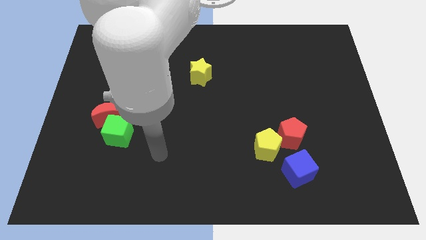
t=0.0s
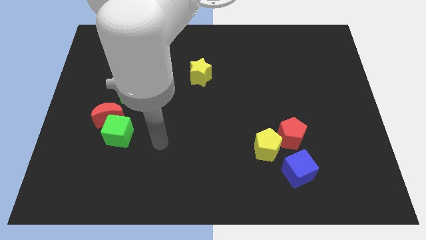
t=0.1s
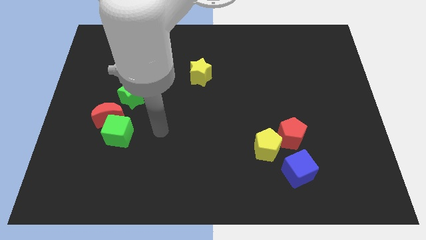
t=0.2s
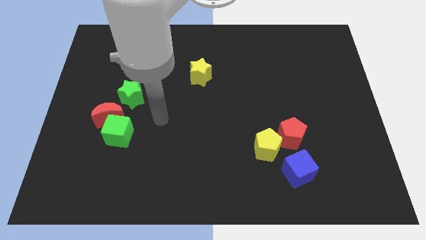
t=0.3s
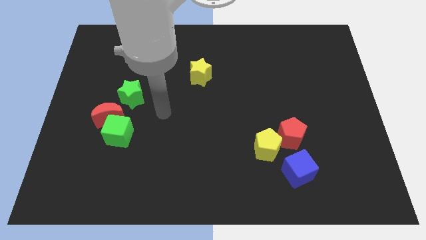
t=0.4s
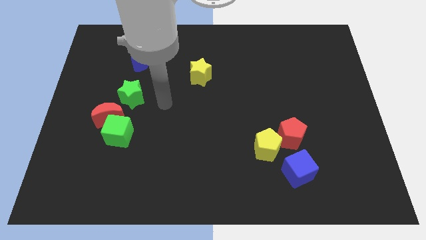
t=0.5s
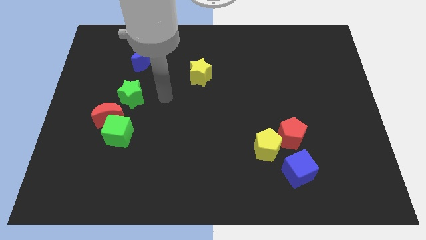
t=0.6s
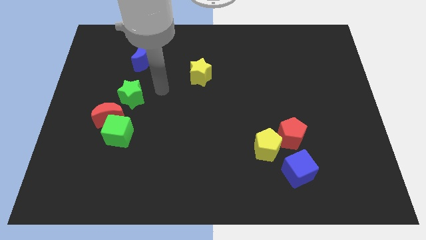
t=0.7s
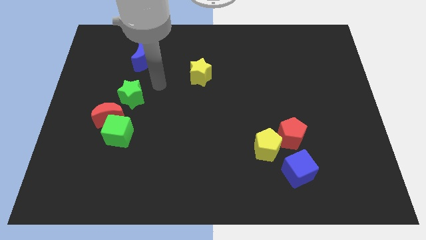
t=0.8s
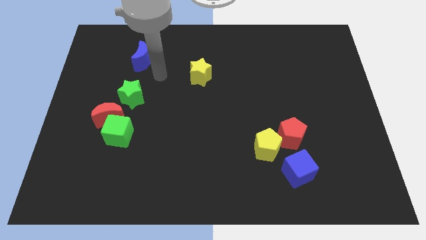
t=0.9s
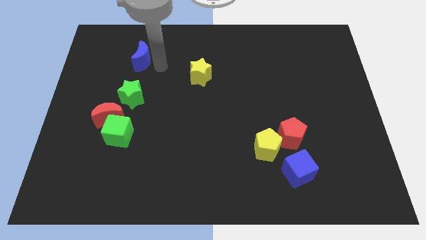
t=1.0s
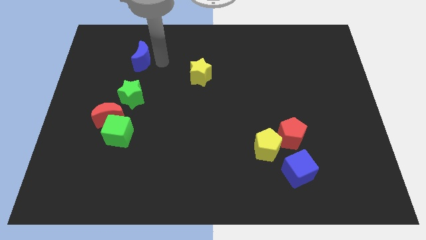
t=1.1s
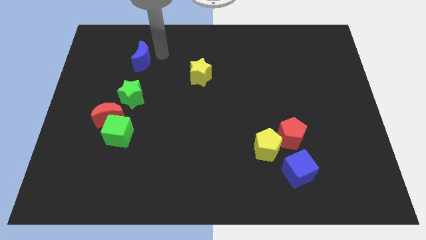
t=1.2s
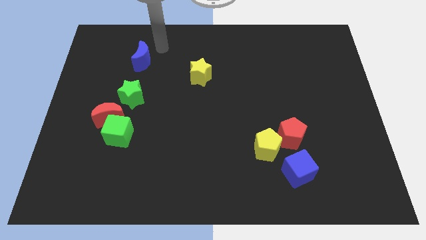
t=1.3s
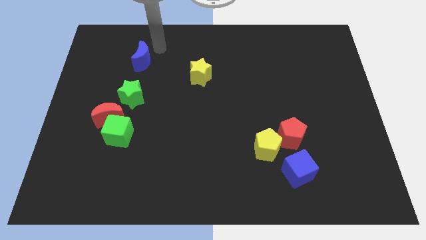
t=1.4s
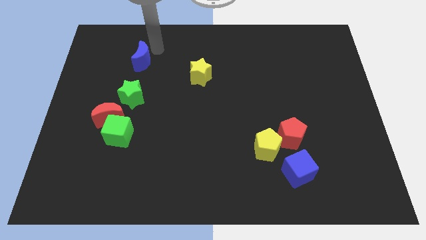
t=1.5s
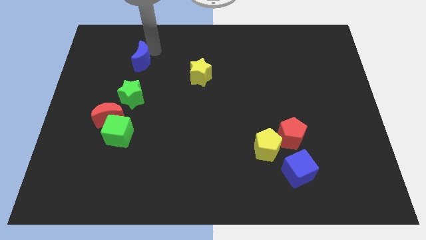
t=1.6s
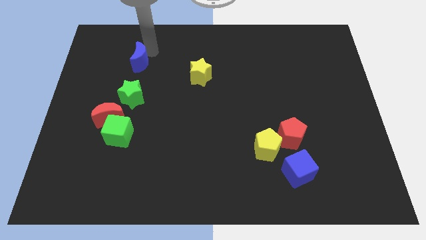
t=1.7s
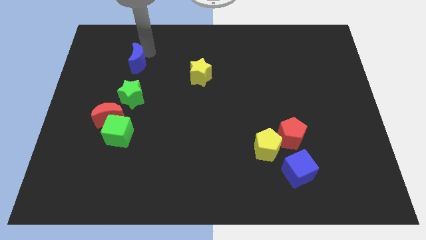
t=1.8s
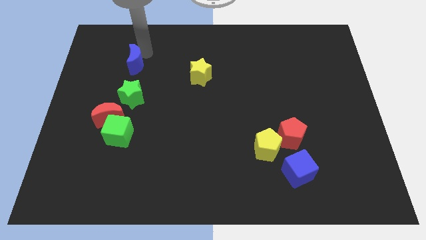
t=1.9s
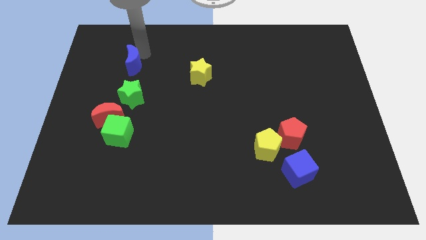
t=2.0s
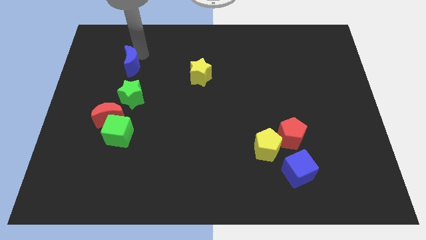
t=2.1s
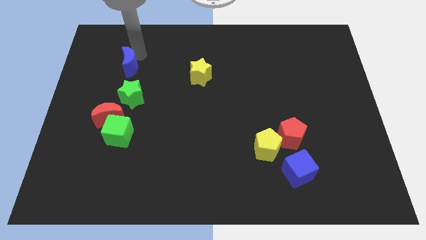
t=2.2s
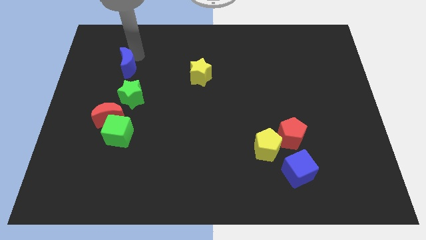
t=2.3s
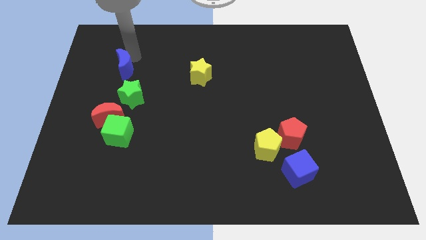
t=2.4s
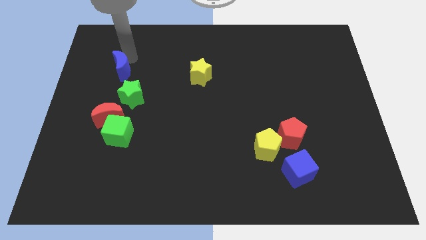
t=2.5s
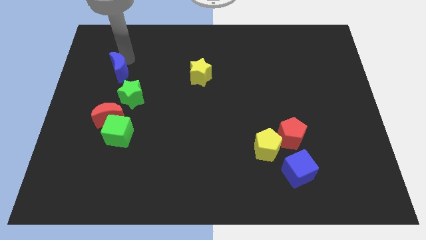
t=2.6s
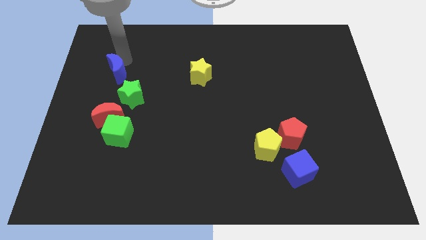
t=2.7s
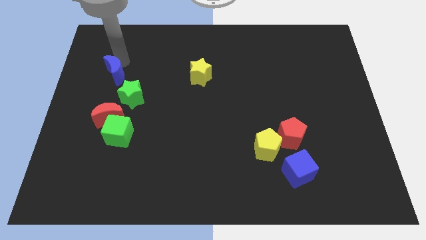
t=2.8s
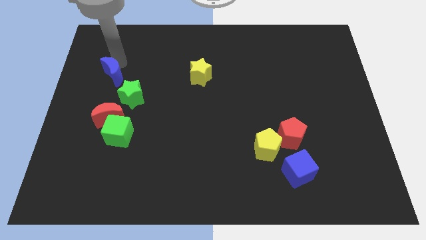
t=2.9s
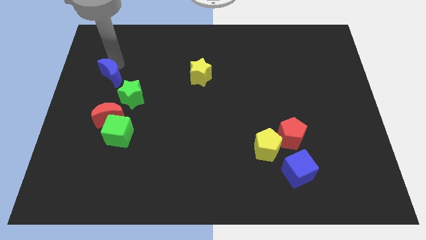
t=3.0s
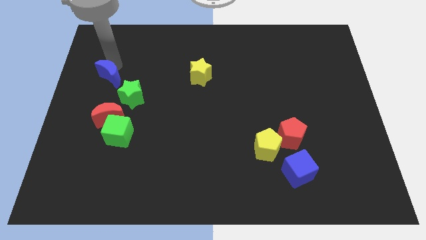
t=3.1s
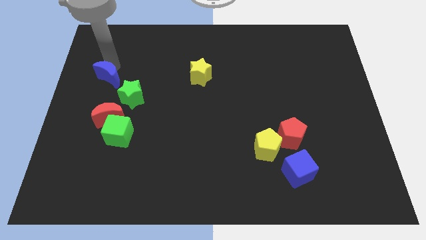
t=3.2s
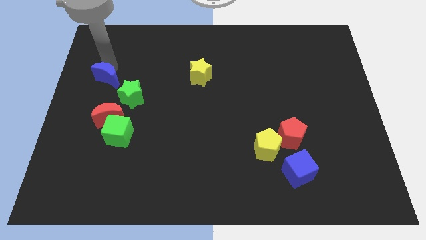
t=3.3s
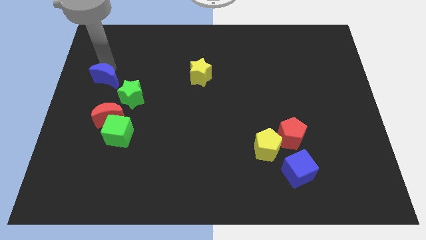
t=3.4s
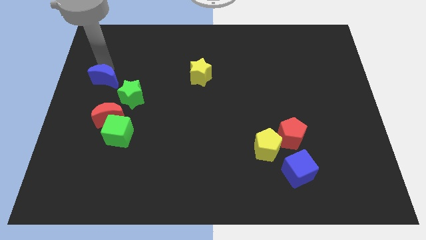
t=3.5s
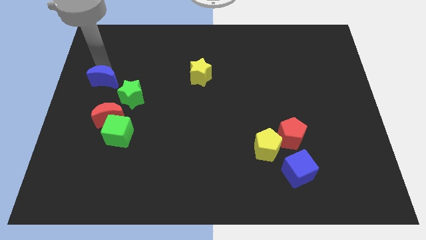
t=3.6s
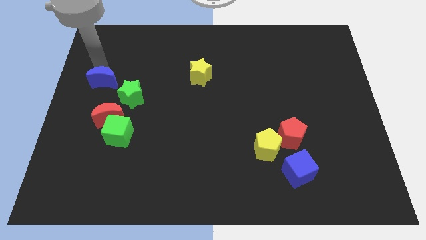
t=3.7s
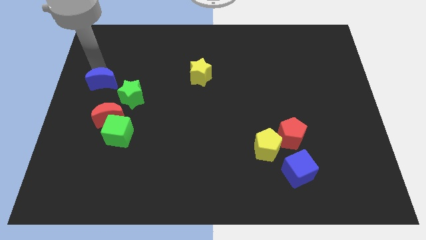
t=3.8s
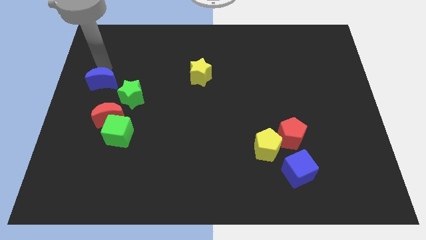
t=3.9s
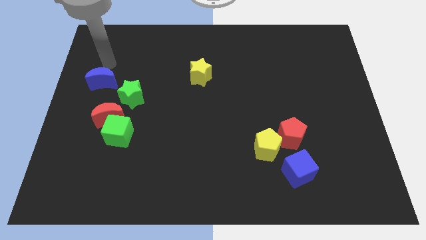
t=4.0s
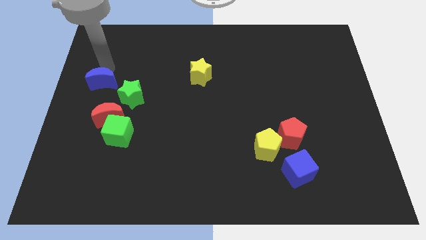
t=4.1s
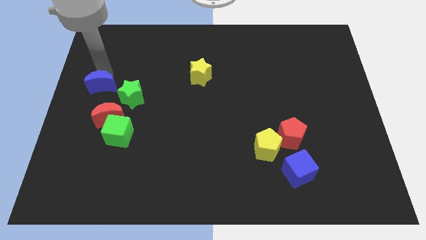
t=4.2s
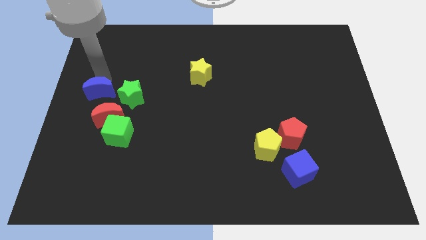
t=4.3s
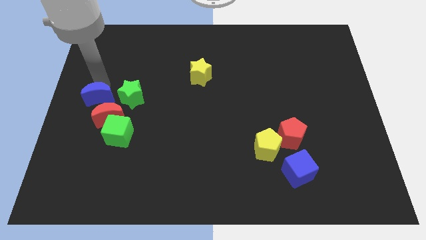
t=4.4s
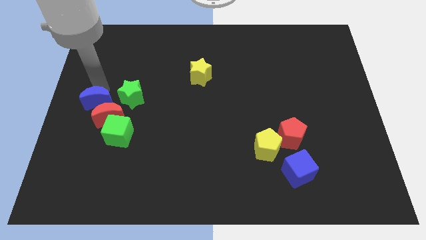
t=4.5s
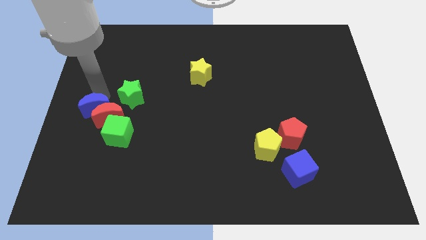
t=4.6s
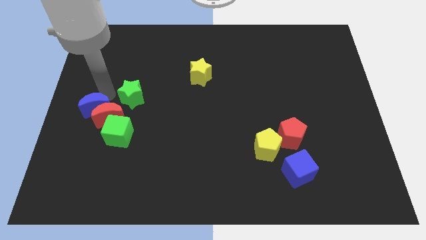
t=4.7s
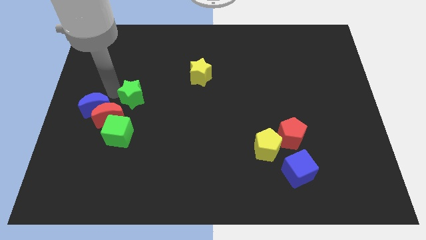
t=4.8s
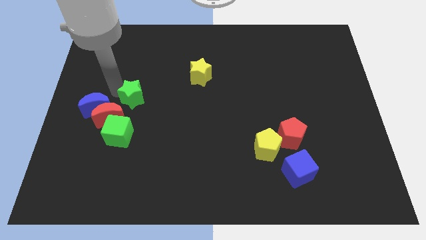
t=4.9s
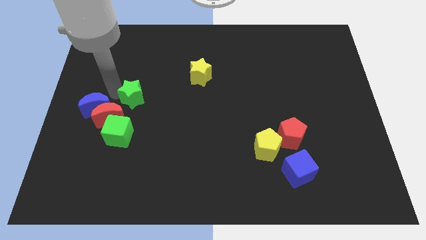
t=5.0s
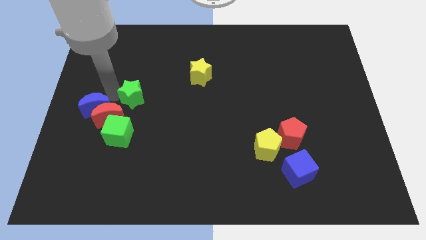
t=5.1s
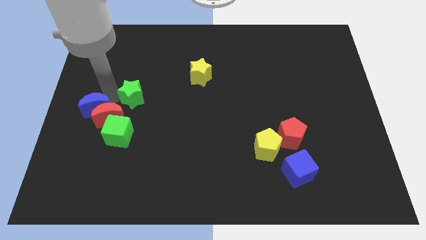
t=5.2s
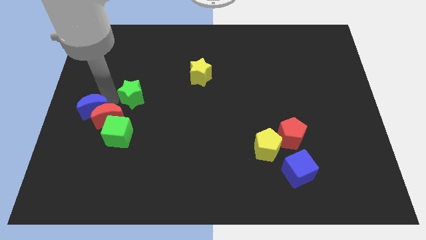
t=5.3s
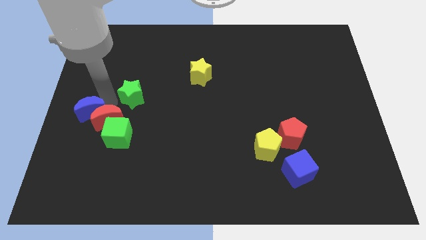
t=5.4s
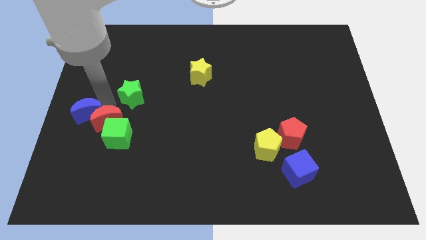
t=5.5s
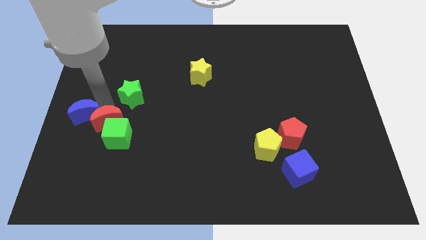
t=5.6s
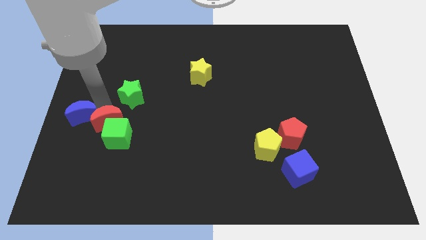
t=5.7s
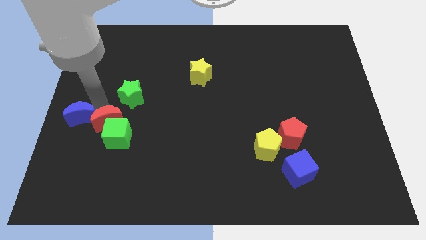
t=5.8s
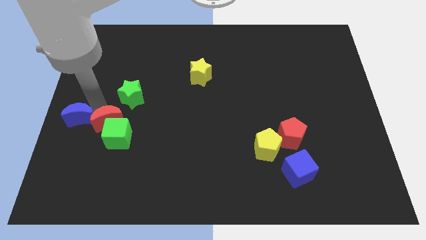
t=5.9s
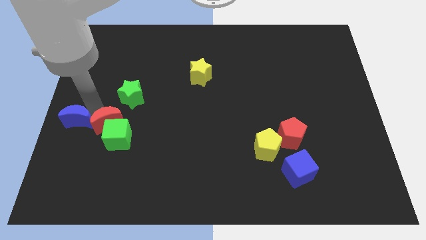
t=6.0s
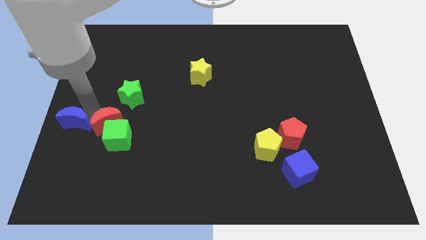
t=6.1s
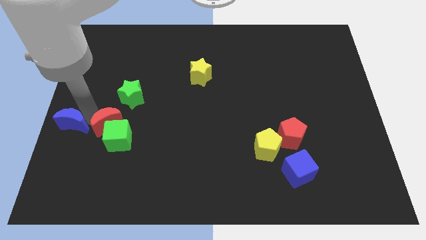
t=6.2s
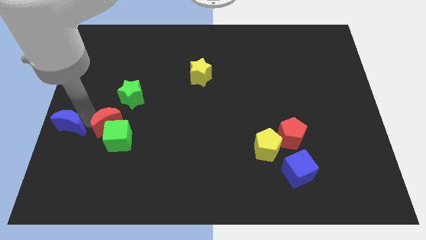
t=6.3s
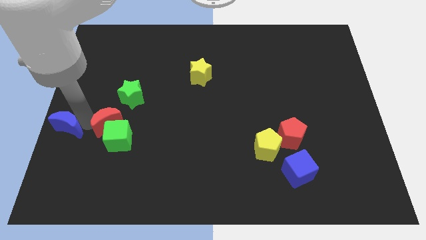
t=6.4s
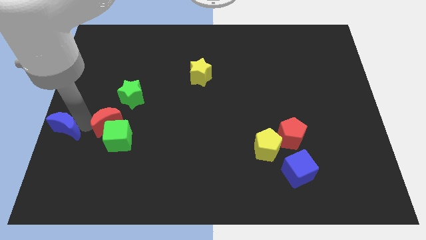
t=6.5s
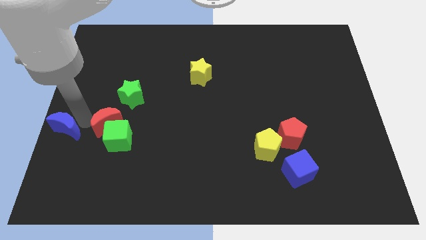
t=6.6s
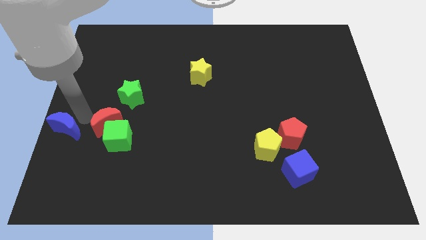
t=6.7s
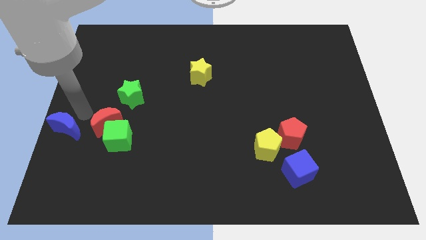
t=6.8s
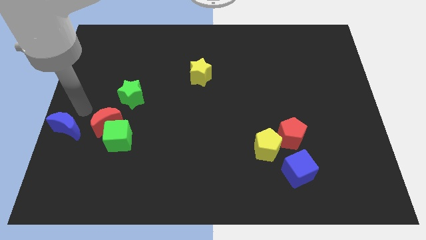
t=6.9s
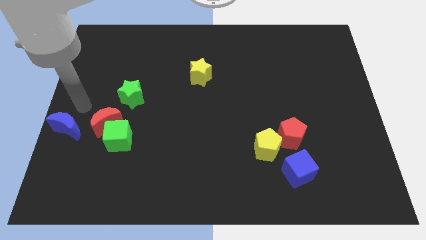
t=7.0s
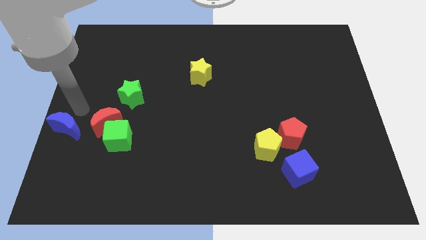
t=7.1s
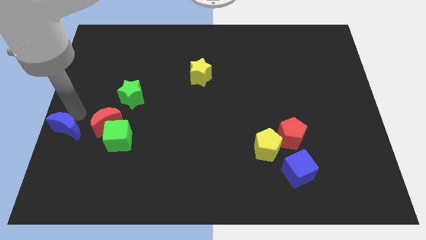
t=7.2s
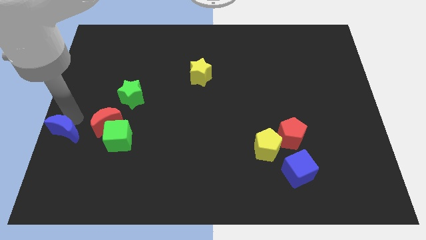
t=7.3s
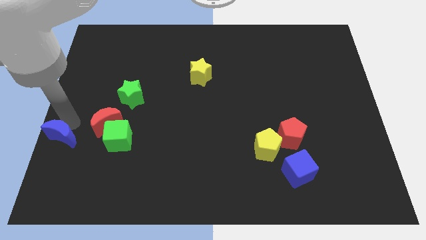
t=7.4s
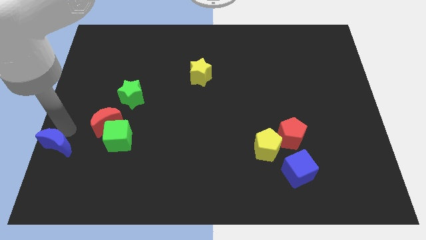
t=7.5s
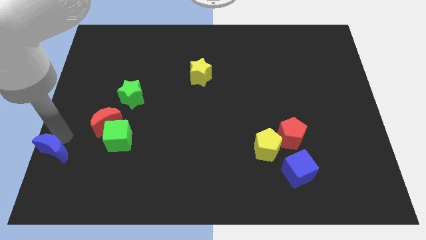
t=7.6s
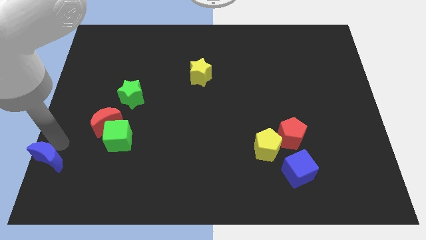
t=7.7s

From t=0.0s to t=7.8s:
slide the blue moon to the bottom left corner
